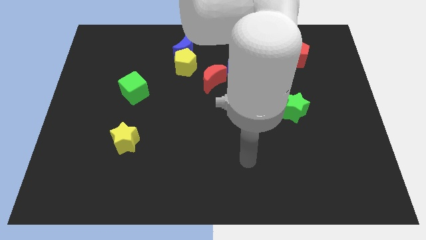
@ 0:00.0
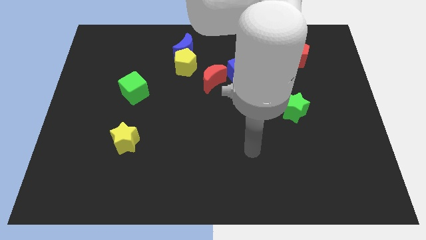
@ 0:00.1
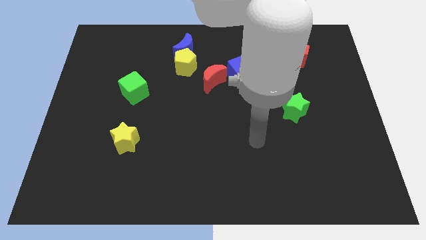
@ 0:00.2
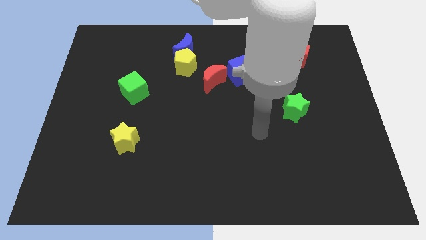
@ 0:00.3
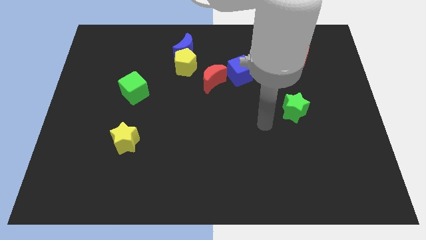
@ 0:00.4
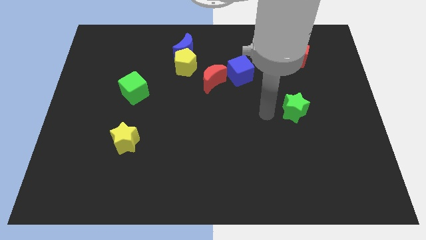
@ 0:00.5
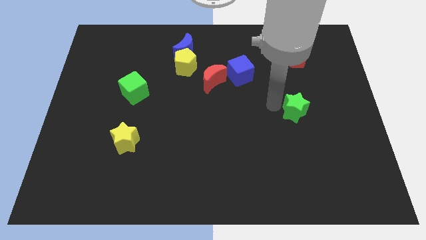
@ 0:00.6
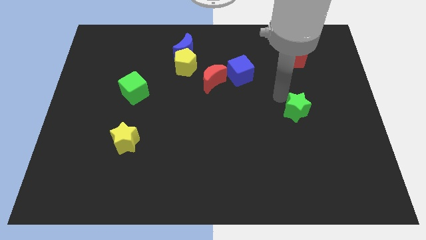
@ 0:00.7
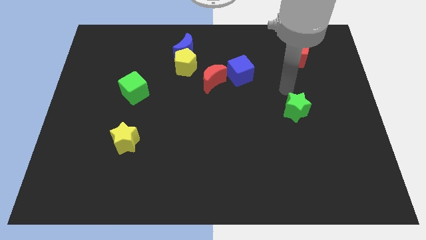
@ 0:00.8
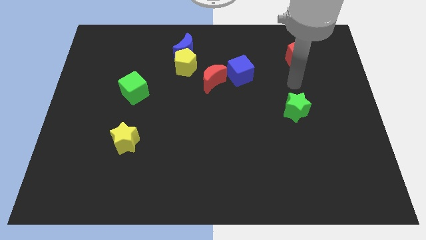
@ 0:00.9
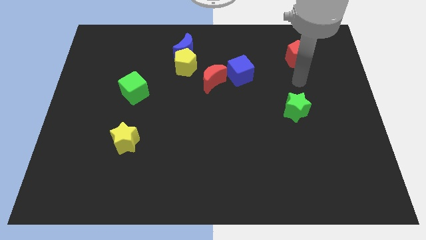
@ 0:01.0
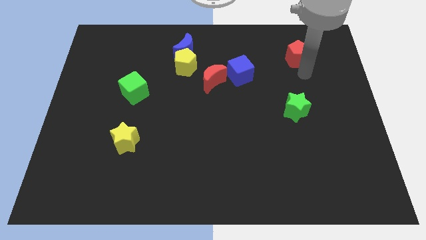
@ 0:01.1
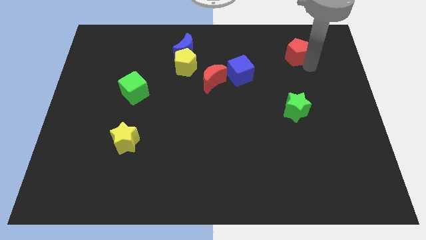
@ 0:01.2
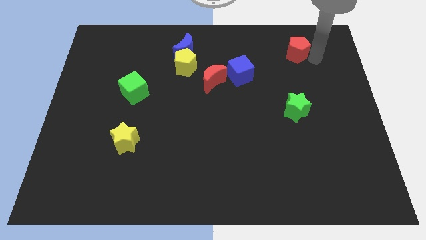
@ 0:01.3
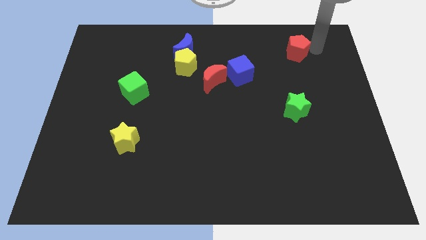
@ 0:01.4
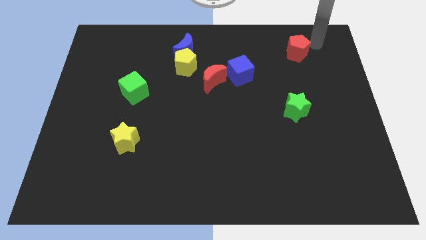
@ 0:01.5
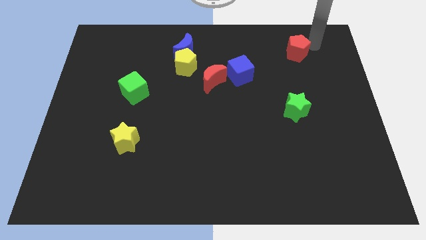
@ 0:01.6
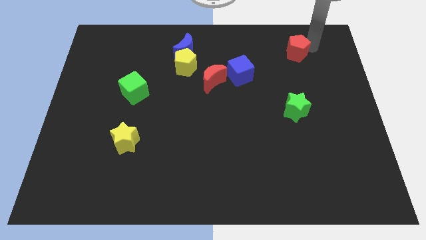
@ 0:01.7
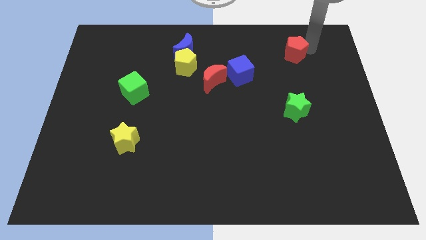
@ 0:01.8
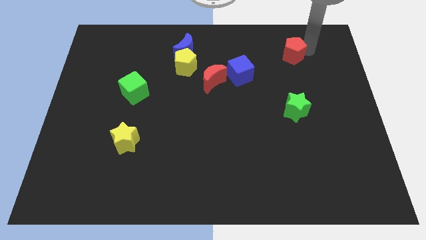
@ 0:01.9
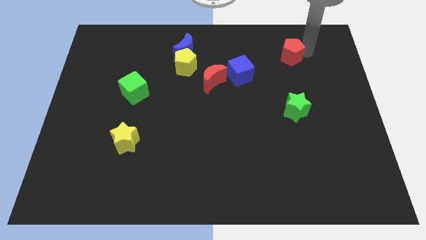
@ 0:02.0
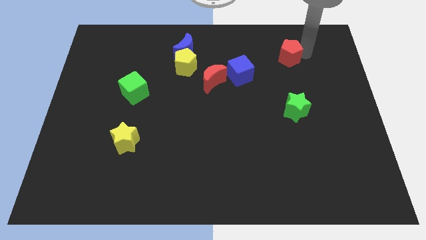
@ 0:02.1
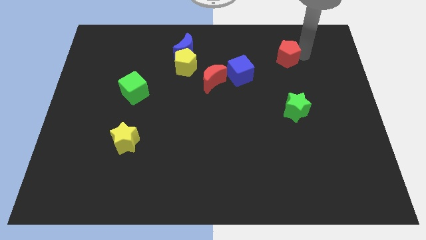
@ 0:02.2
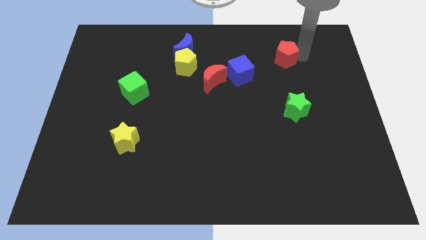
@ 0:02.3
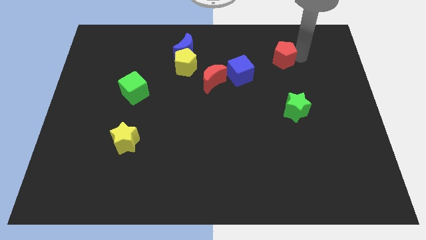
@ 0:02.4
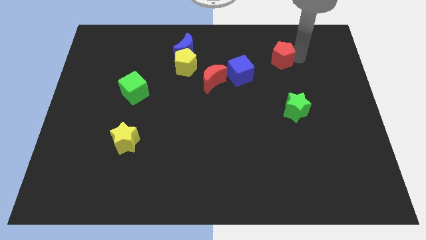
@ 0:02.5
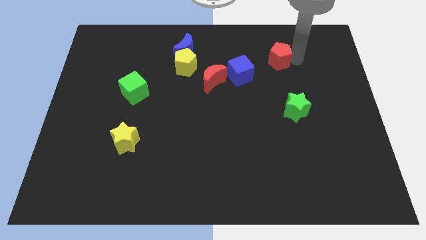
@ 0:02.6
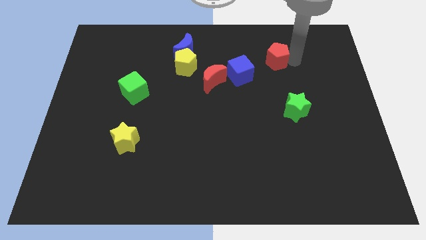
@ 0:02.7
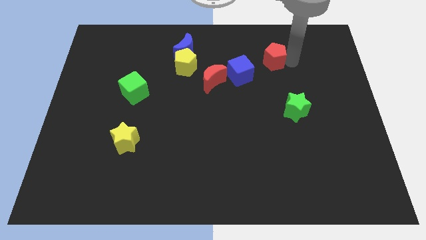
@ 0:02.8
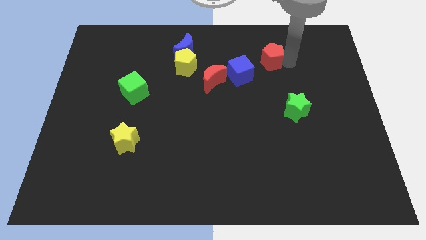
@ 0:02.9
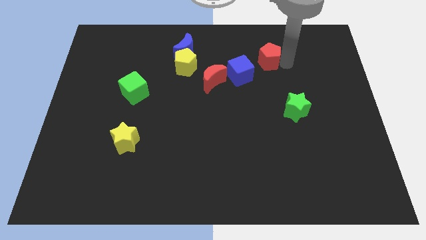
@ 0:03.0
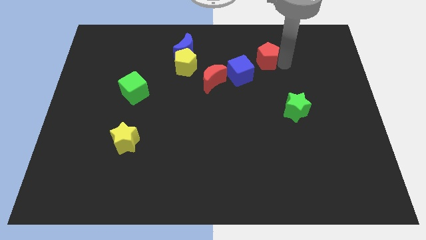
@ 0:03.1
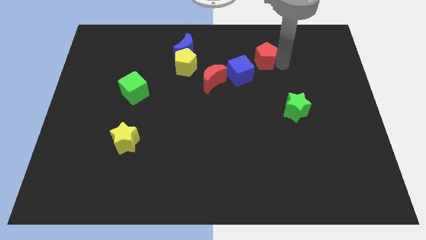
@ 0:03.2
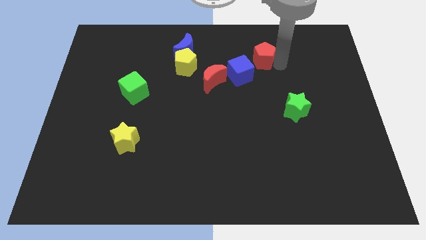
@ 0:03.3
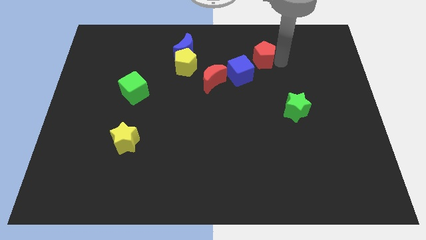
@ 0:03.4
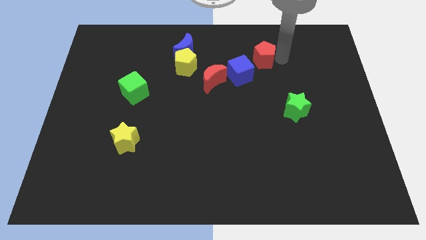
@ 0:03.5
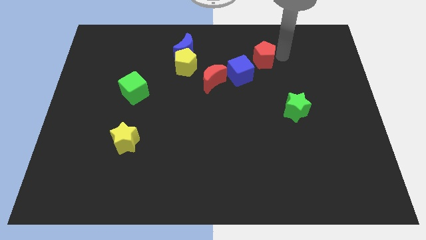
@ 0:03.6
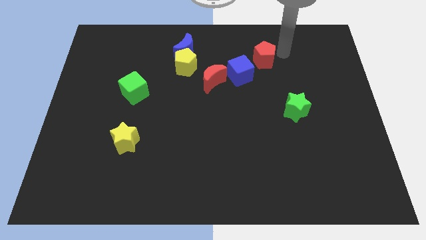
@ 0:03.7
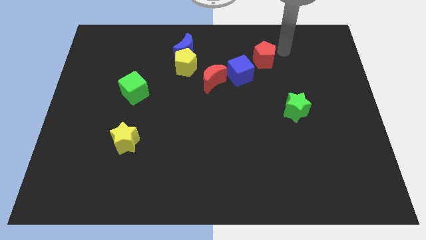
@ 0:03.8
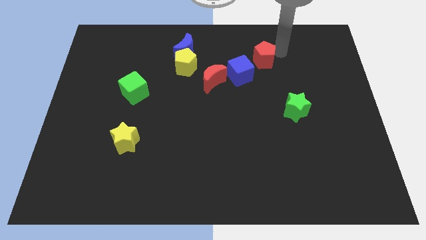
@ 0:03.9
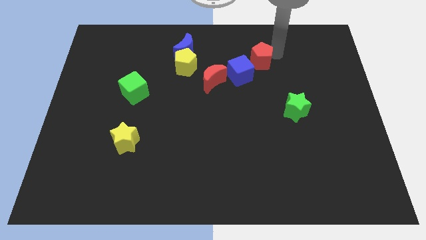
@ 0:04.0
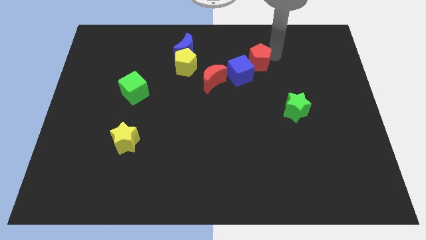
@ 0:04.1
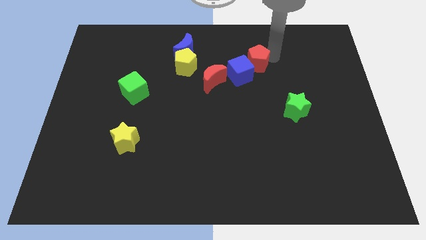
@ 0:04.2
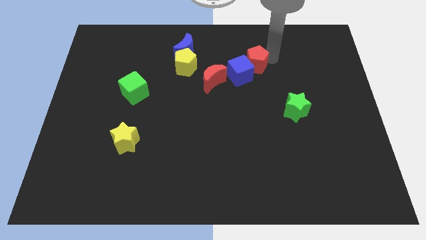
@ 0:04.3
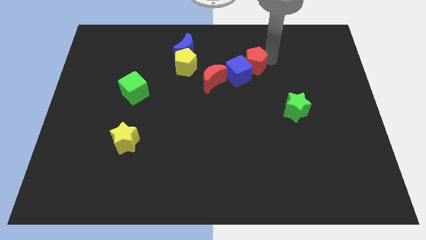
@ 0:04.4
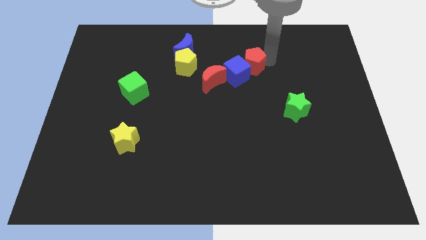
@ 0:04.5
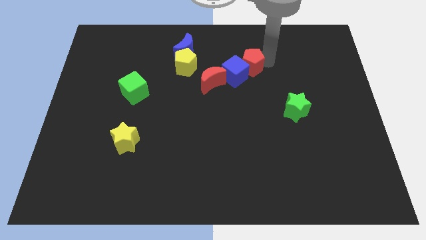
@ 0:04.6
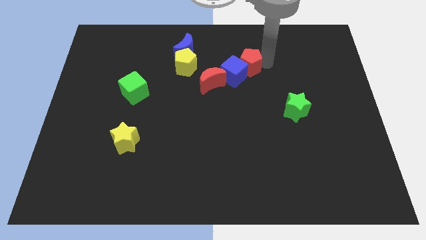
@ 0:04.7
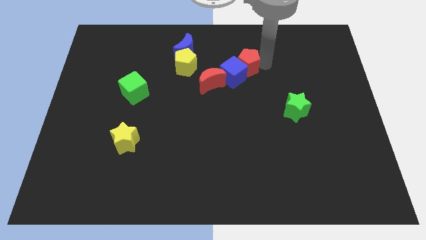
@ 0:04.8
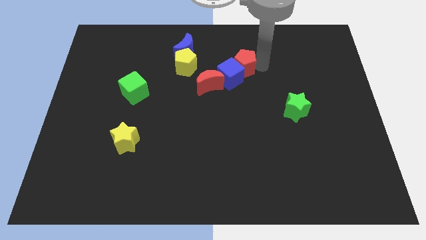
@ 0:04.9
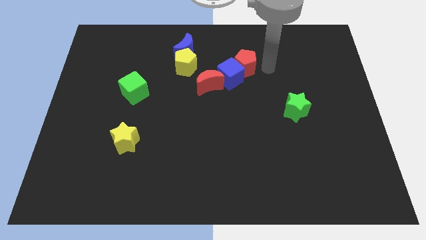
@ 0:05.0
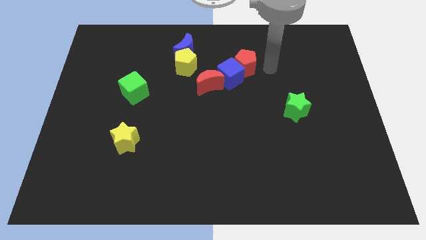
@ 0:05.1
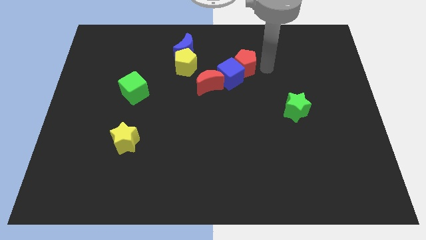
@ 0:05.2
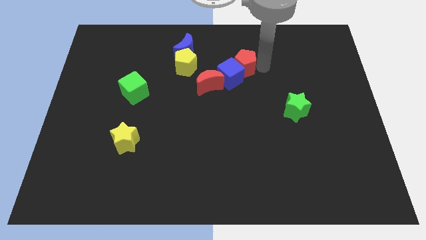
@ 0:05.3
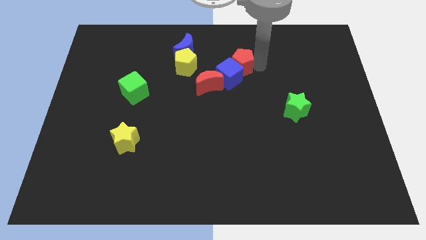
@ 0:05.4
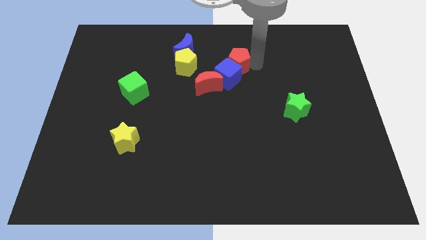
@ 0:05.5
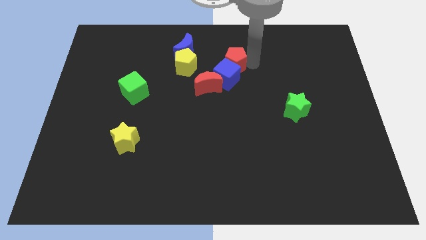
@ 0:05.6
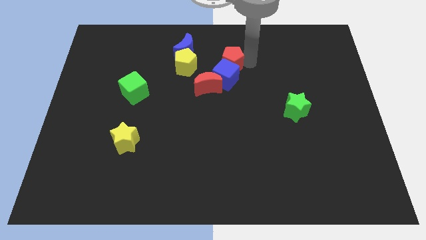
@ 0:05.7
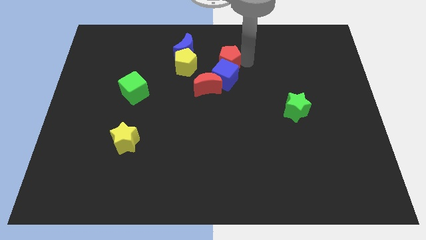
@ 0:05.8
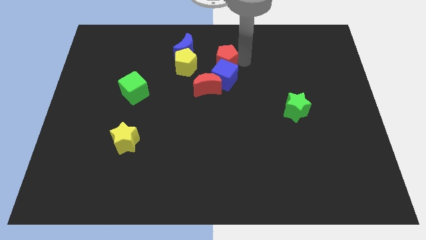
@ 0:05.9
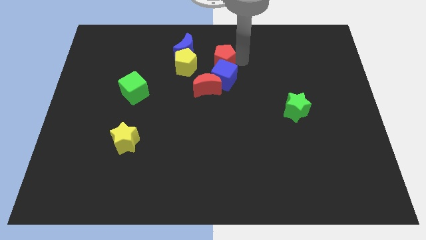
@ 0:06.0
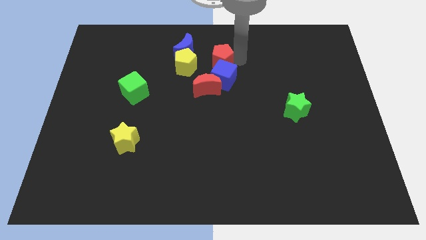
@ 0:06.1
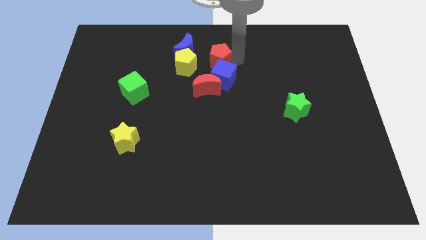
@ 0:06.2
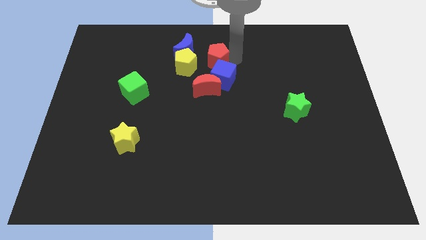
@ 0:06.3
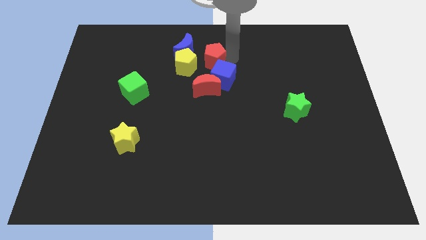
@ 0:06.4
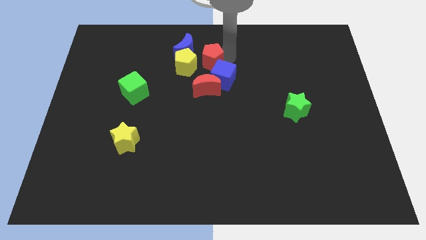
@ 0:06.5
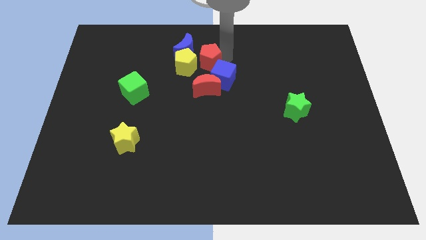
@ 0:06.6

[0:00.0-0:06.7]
put the red pentagon towards the yellow pentagon
